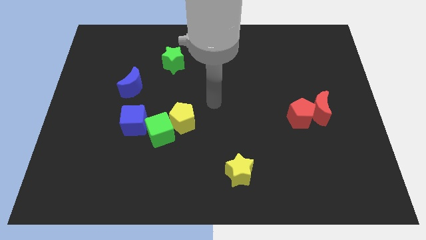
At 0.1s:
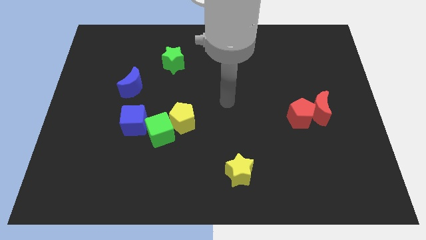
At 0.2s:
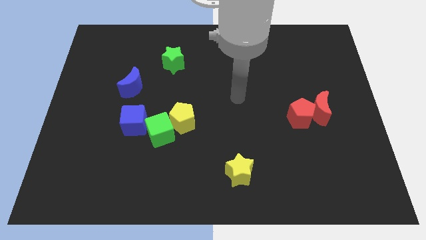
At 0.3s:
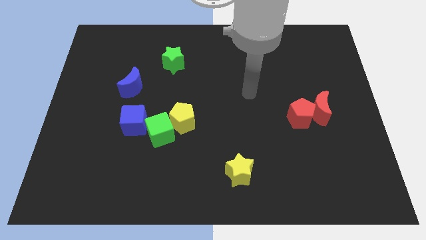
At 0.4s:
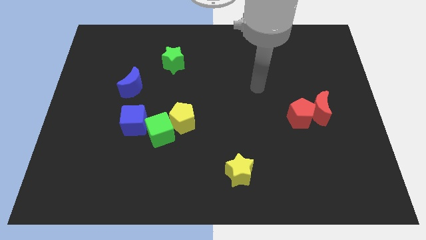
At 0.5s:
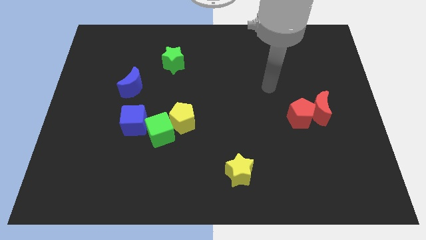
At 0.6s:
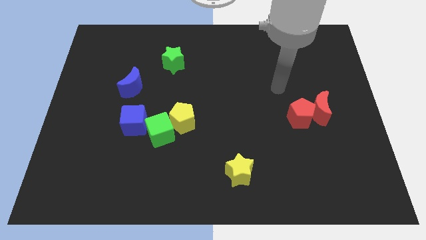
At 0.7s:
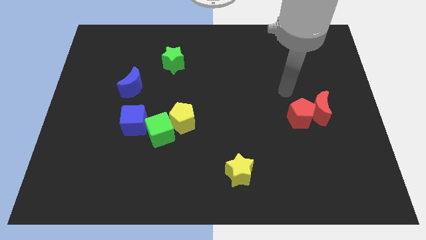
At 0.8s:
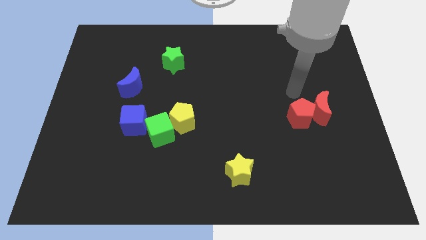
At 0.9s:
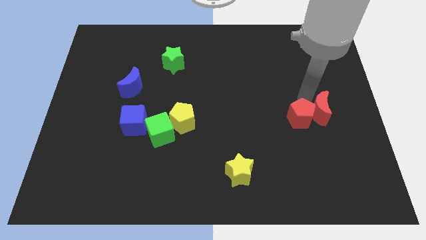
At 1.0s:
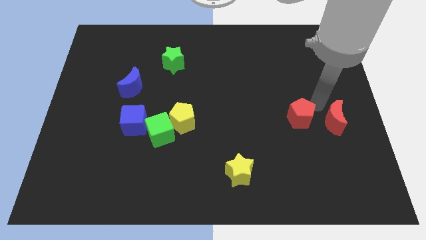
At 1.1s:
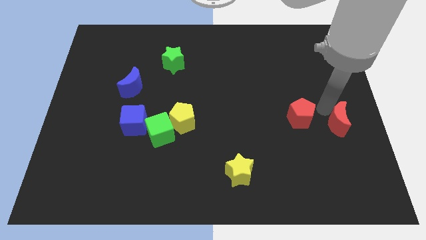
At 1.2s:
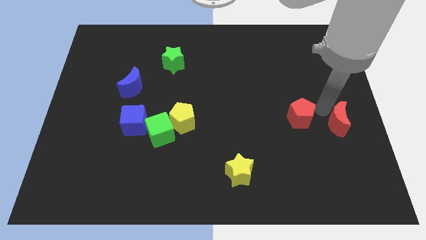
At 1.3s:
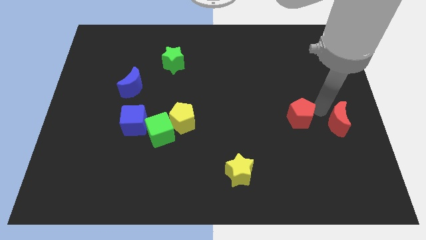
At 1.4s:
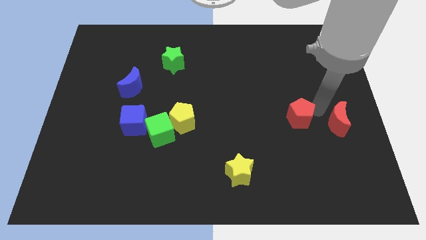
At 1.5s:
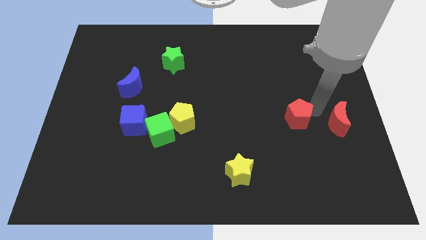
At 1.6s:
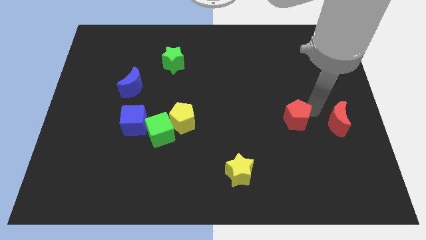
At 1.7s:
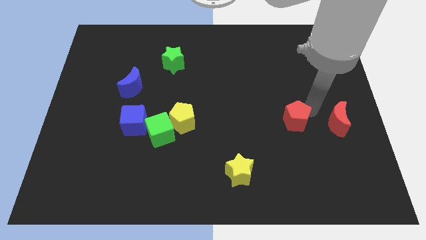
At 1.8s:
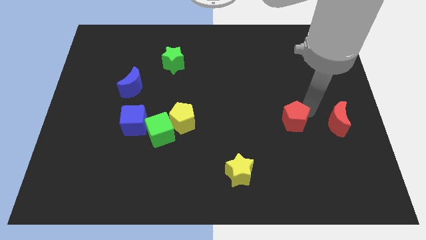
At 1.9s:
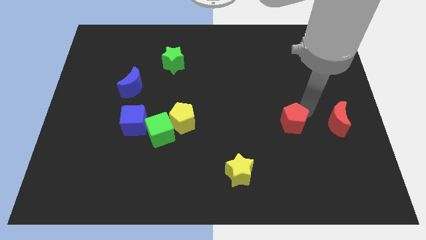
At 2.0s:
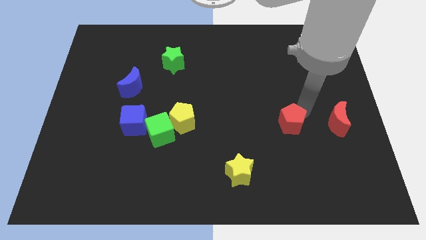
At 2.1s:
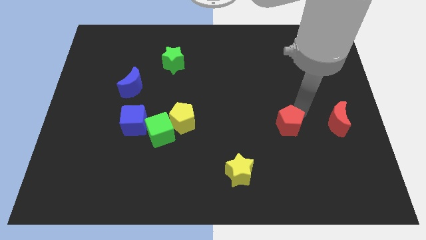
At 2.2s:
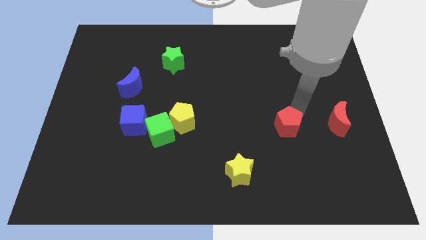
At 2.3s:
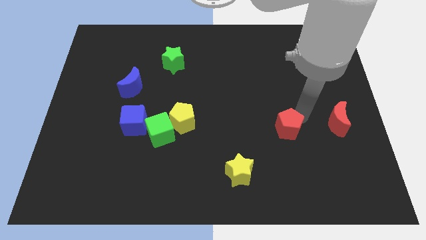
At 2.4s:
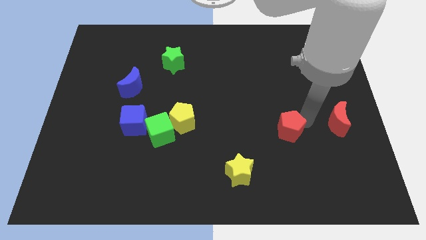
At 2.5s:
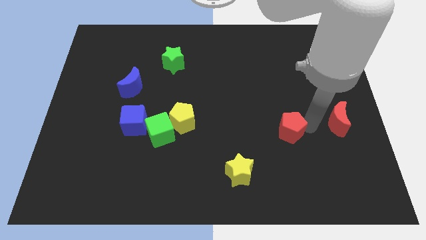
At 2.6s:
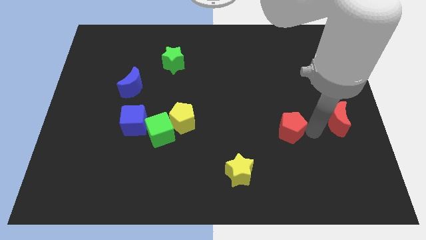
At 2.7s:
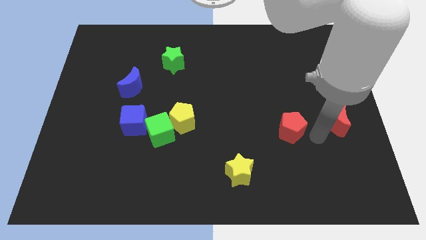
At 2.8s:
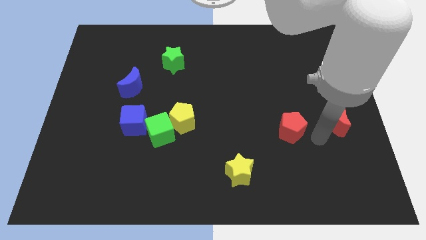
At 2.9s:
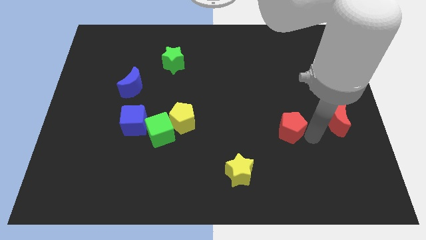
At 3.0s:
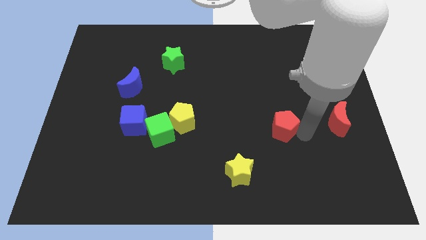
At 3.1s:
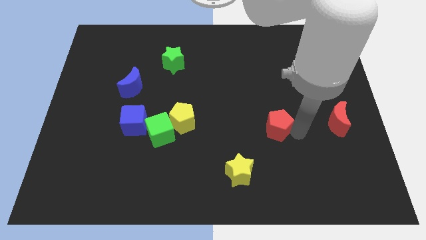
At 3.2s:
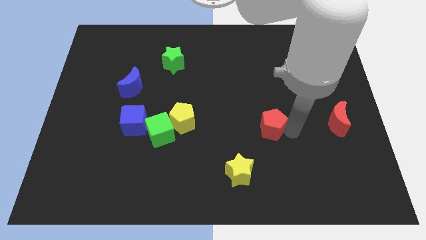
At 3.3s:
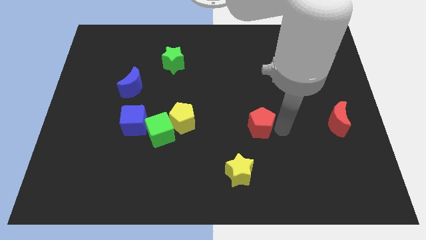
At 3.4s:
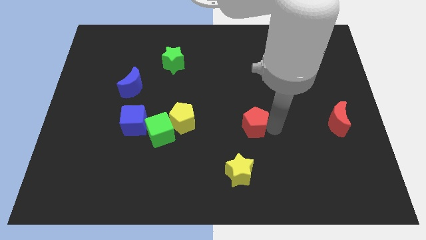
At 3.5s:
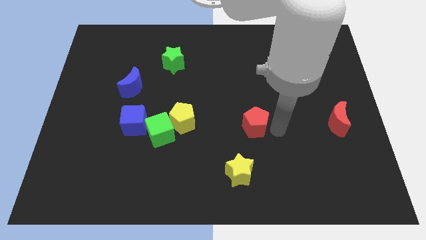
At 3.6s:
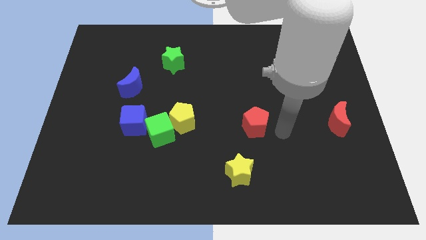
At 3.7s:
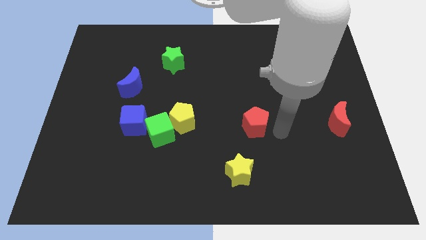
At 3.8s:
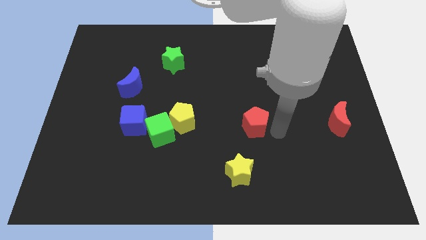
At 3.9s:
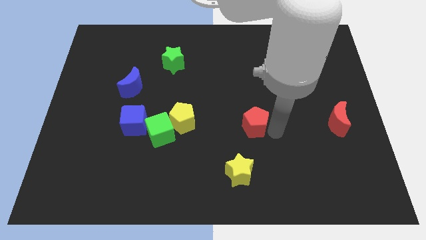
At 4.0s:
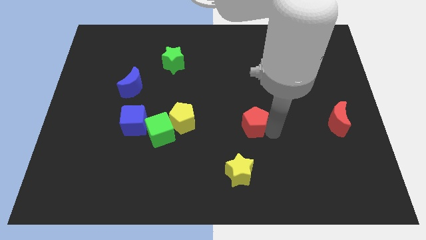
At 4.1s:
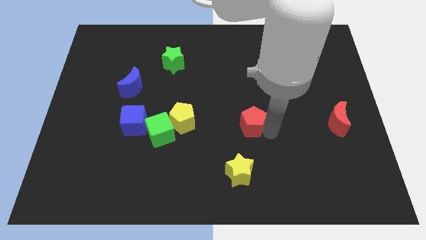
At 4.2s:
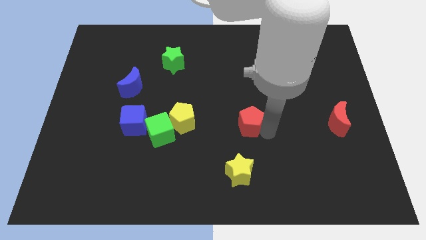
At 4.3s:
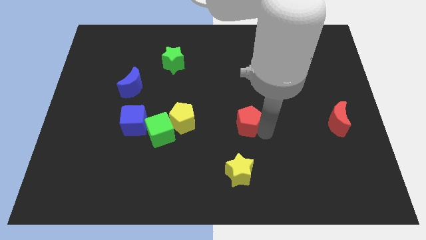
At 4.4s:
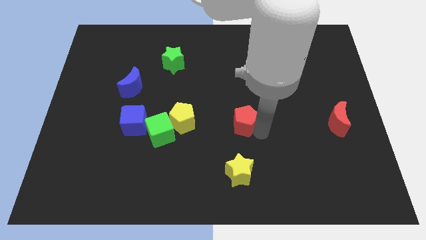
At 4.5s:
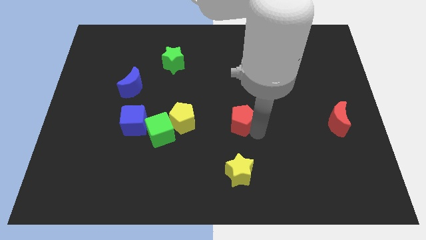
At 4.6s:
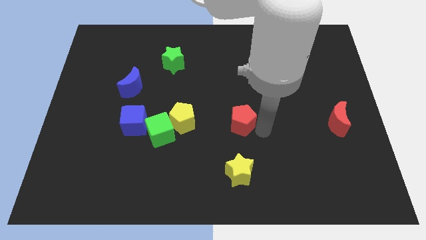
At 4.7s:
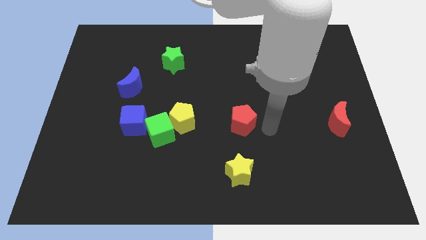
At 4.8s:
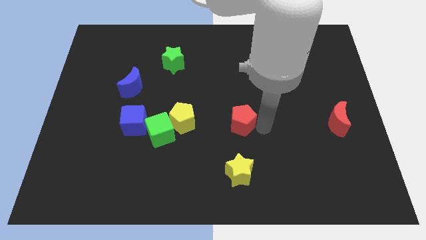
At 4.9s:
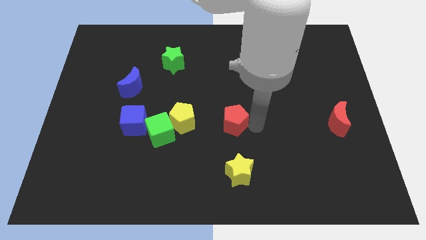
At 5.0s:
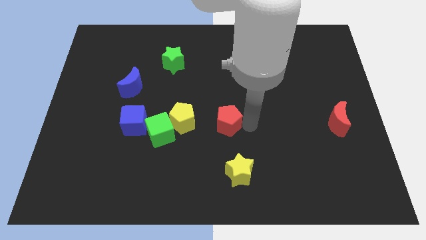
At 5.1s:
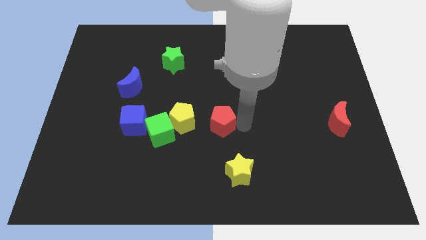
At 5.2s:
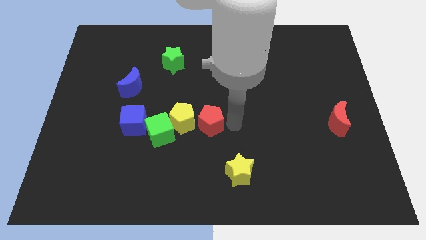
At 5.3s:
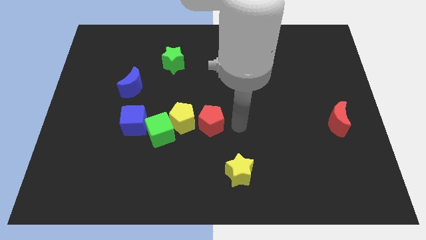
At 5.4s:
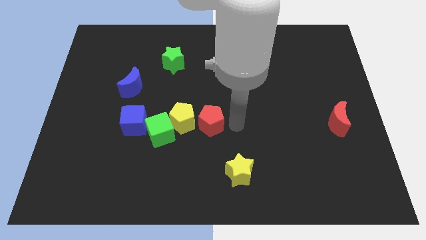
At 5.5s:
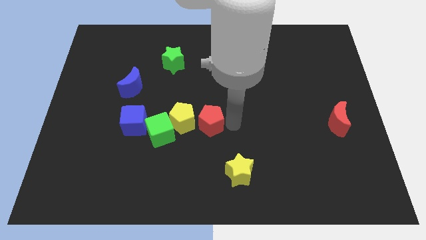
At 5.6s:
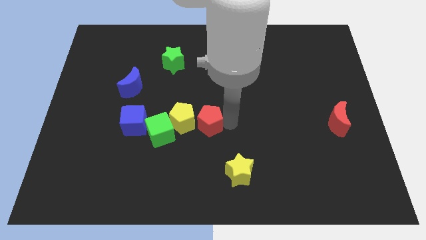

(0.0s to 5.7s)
move the red pentagon towards the yellow pentagon

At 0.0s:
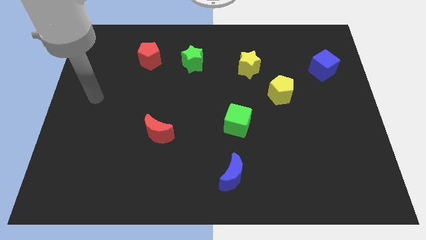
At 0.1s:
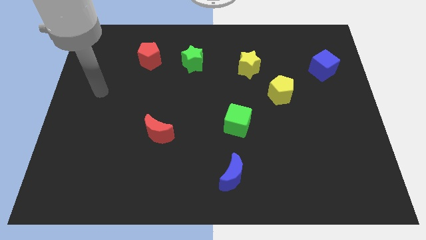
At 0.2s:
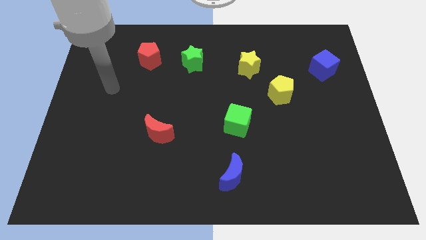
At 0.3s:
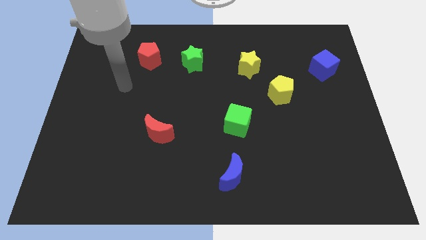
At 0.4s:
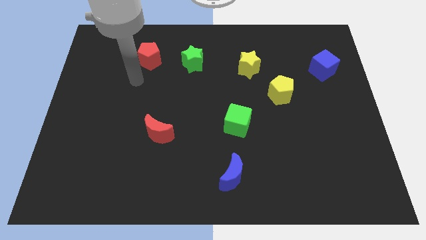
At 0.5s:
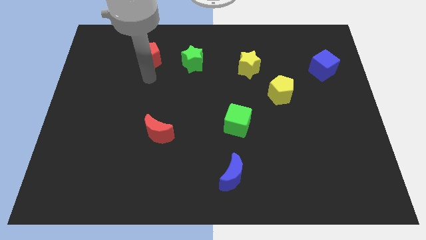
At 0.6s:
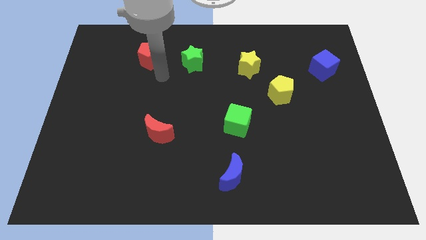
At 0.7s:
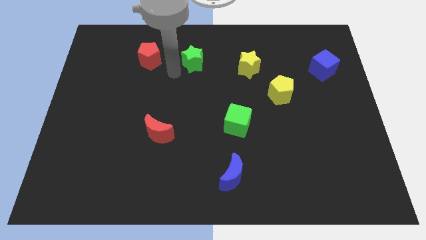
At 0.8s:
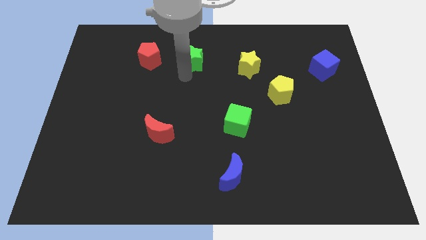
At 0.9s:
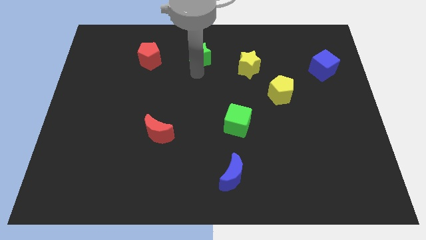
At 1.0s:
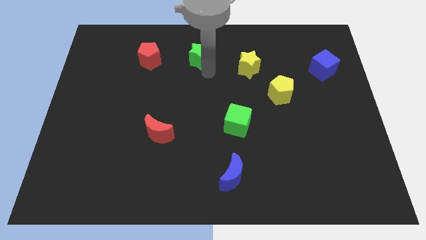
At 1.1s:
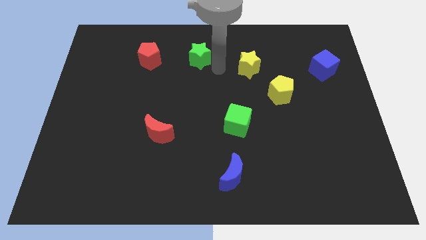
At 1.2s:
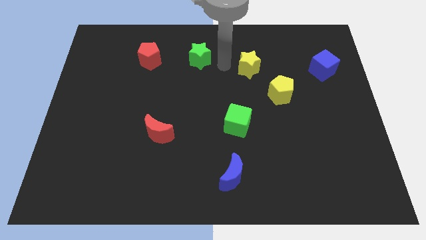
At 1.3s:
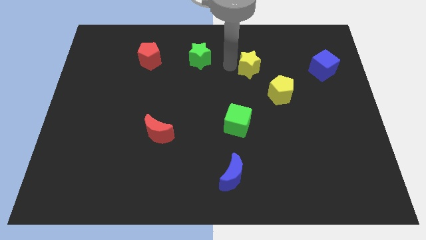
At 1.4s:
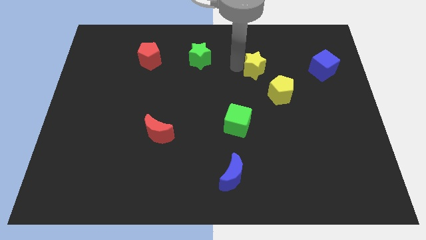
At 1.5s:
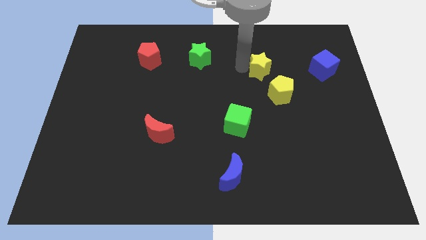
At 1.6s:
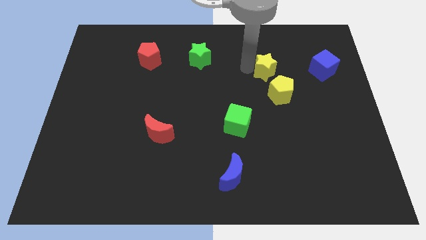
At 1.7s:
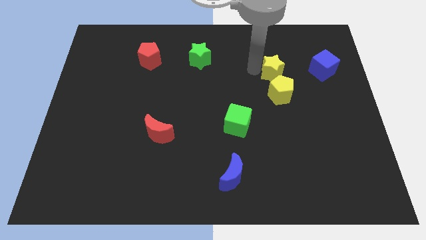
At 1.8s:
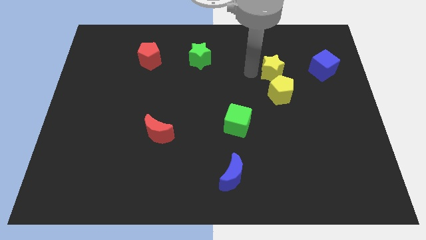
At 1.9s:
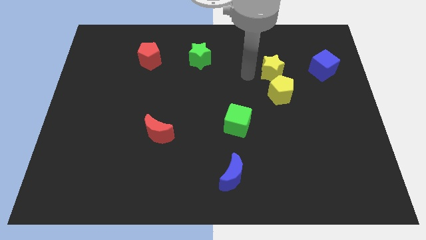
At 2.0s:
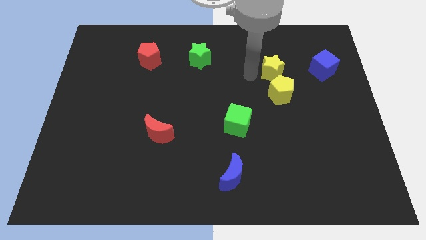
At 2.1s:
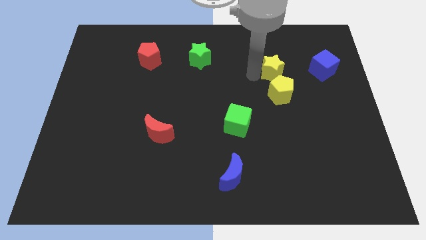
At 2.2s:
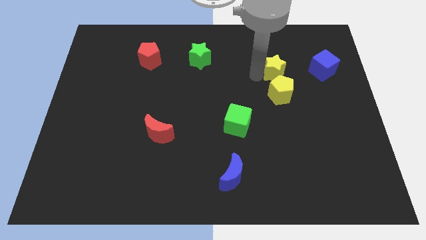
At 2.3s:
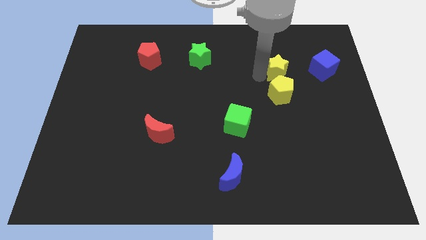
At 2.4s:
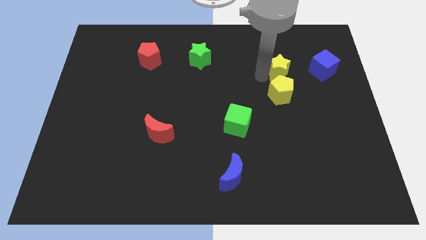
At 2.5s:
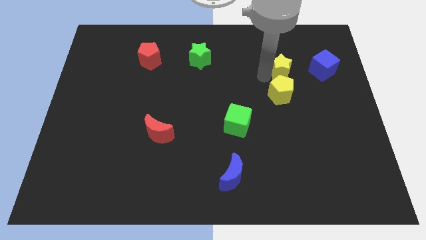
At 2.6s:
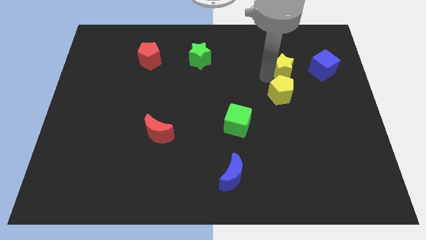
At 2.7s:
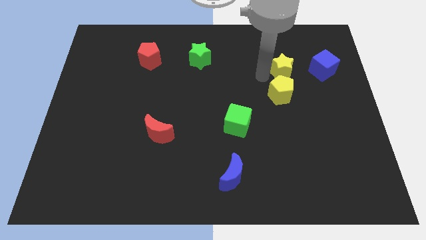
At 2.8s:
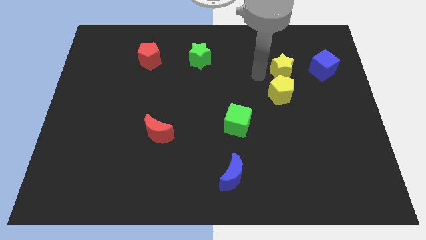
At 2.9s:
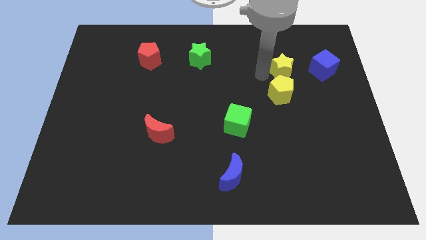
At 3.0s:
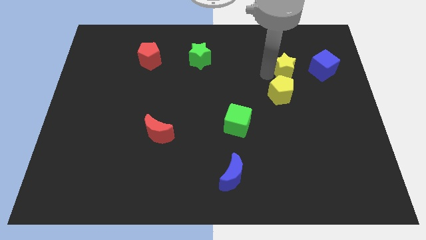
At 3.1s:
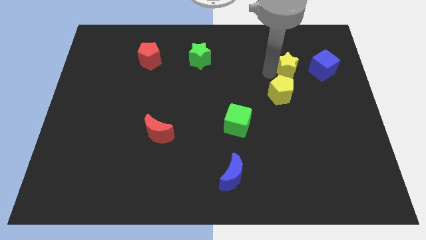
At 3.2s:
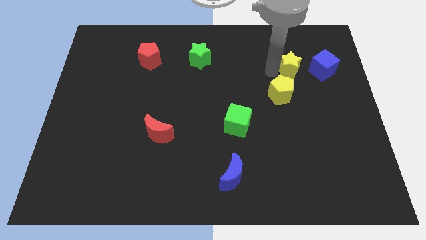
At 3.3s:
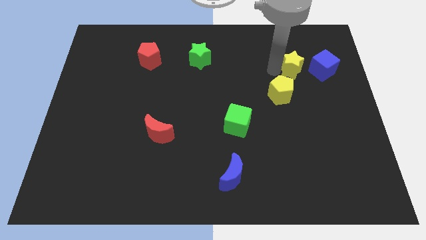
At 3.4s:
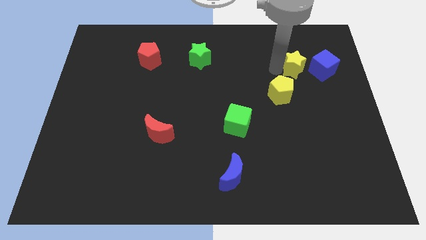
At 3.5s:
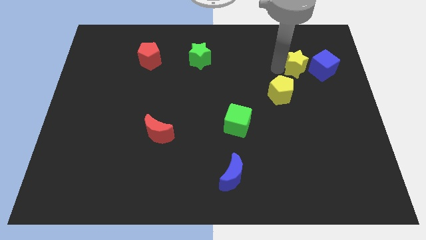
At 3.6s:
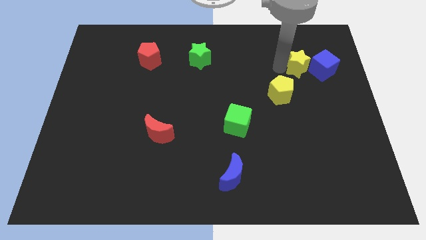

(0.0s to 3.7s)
slide the yellow star towards the blue cube
